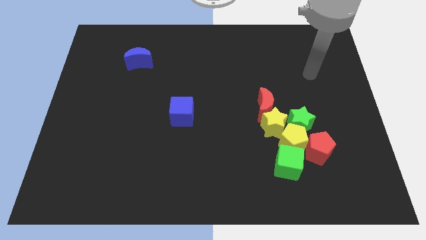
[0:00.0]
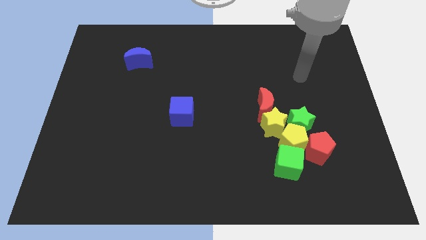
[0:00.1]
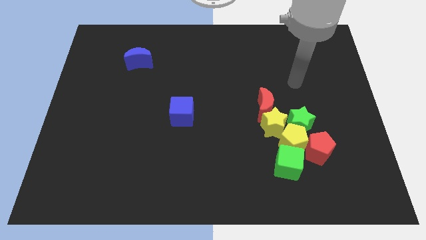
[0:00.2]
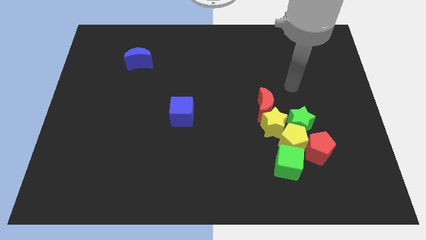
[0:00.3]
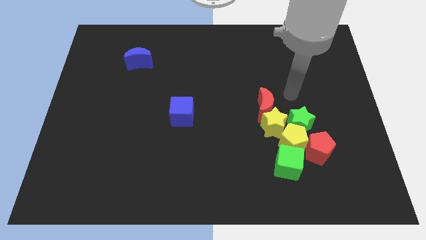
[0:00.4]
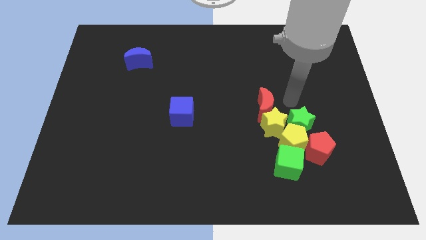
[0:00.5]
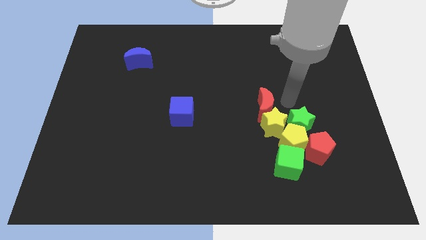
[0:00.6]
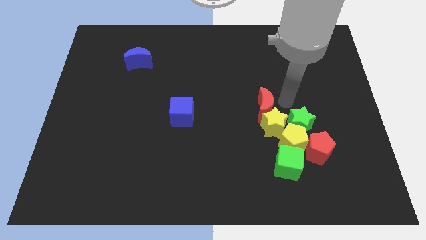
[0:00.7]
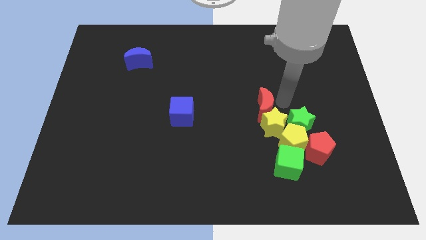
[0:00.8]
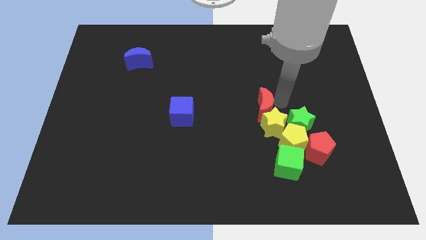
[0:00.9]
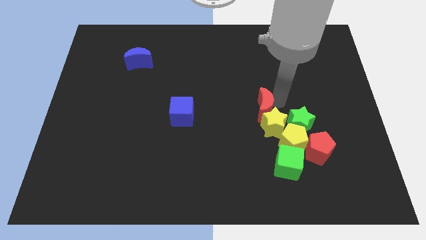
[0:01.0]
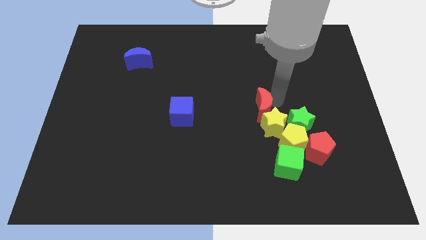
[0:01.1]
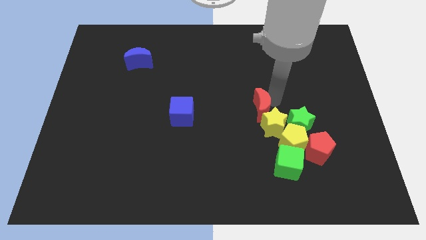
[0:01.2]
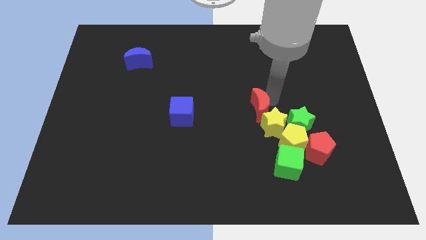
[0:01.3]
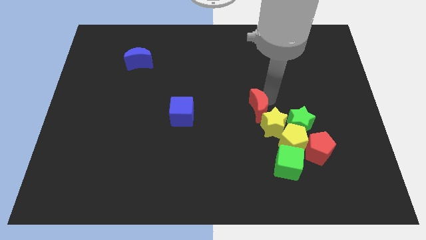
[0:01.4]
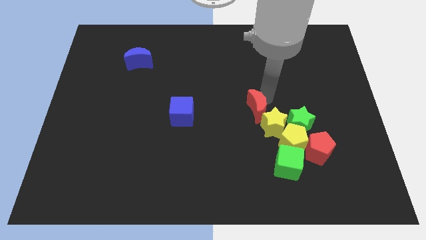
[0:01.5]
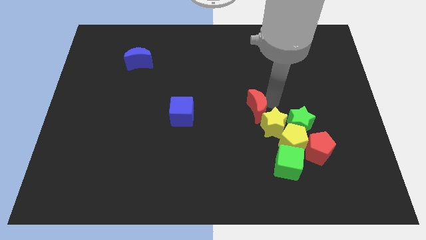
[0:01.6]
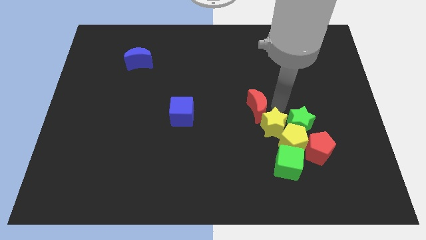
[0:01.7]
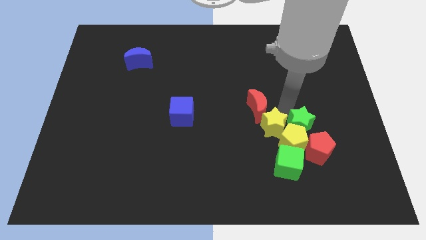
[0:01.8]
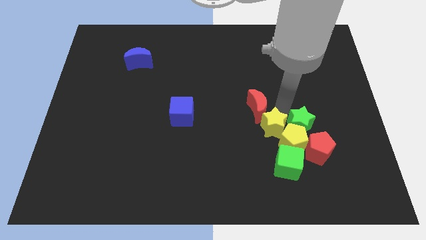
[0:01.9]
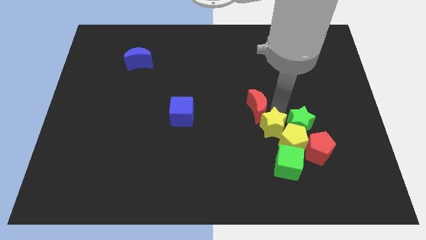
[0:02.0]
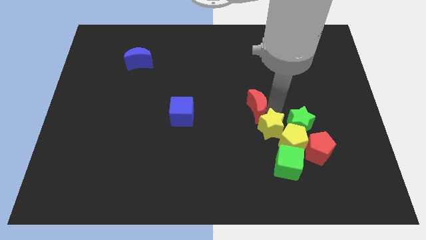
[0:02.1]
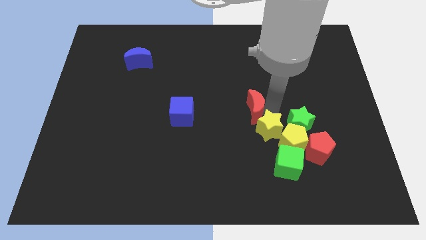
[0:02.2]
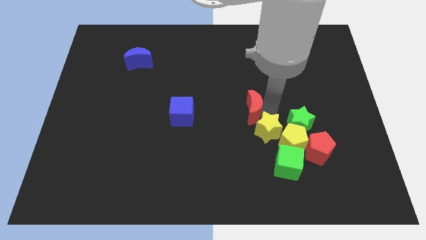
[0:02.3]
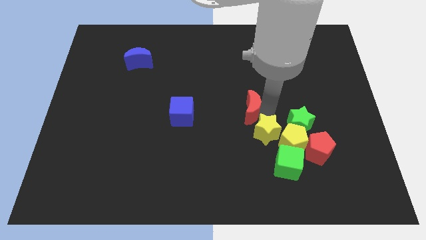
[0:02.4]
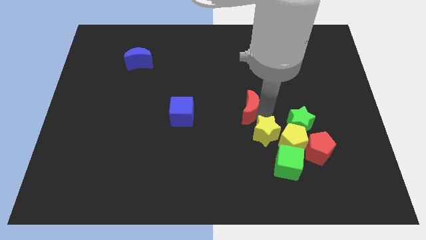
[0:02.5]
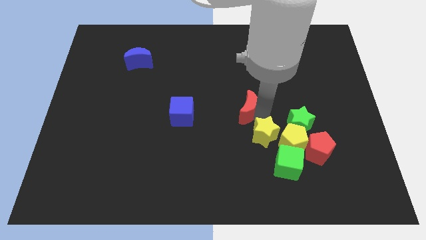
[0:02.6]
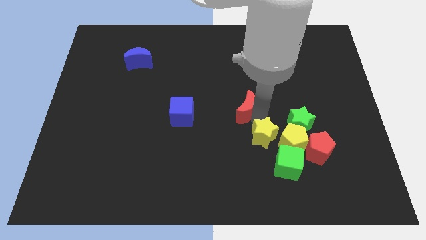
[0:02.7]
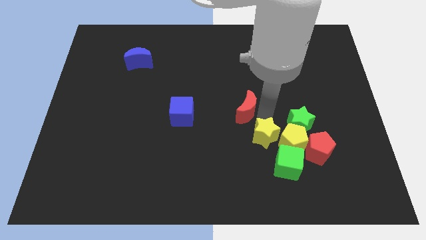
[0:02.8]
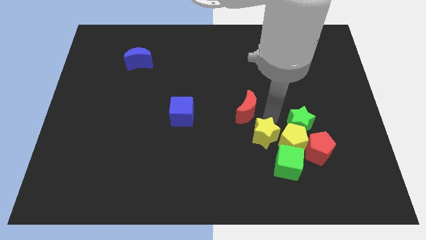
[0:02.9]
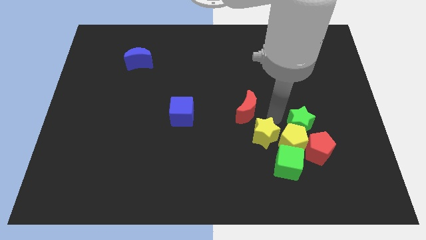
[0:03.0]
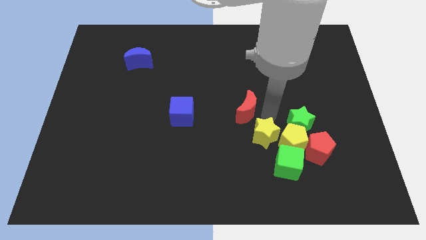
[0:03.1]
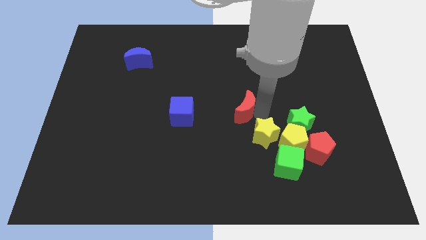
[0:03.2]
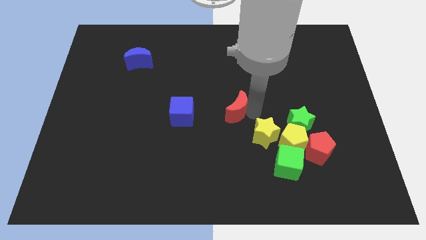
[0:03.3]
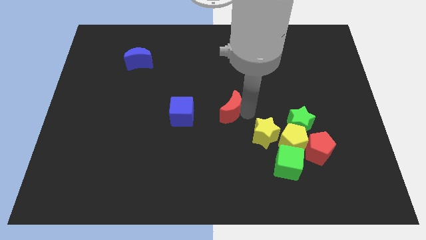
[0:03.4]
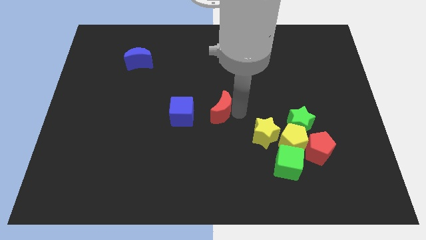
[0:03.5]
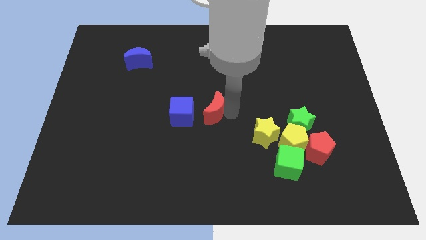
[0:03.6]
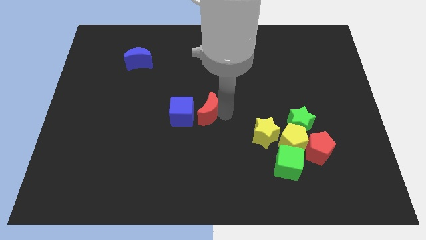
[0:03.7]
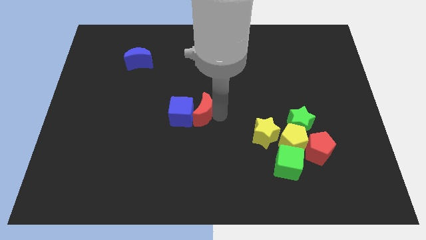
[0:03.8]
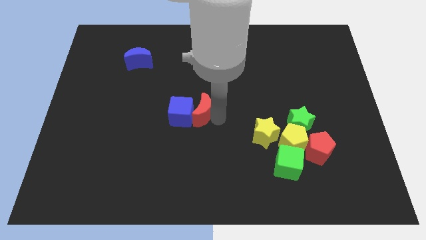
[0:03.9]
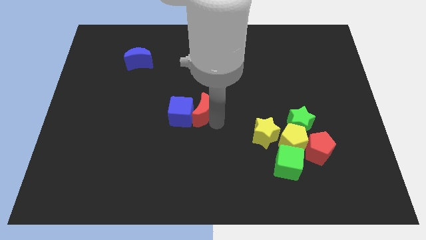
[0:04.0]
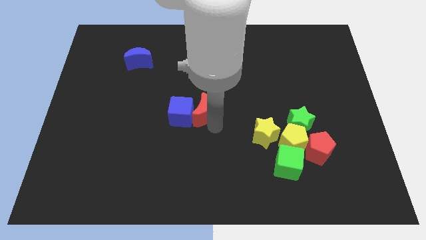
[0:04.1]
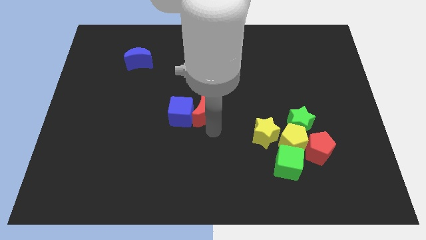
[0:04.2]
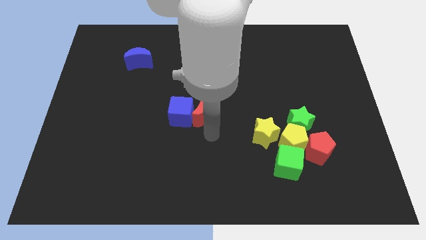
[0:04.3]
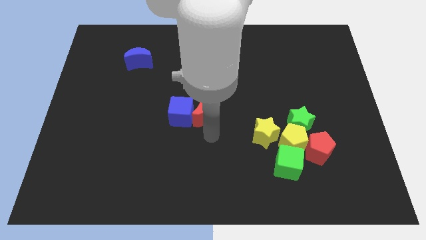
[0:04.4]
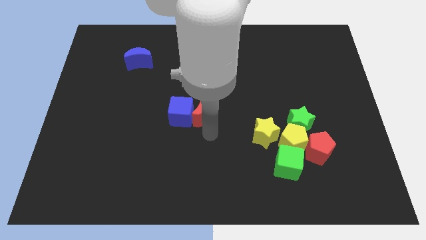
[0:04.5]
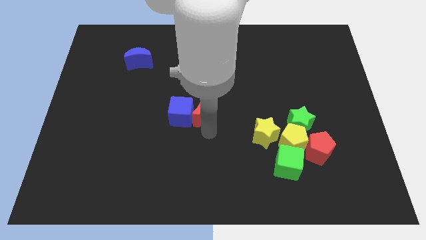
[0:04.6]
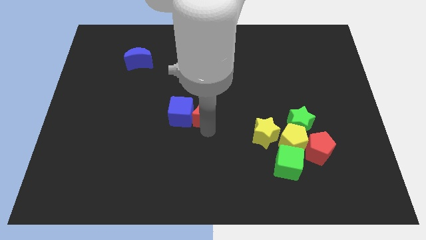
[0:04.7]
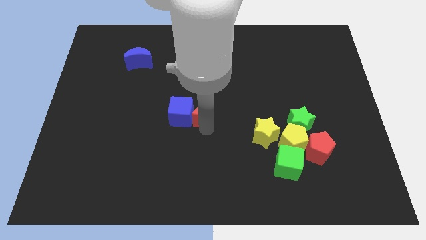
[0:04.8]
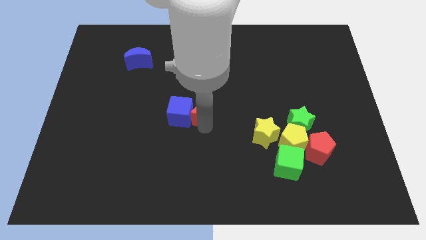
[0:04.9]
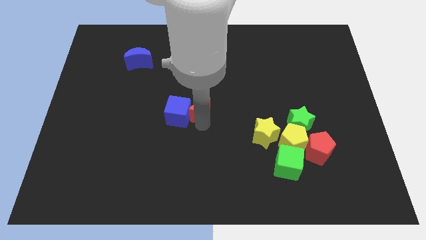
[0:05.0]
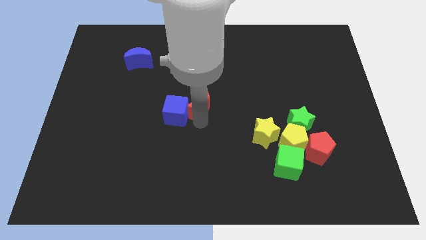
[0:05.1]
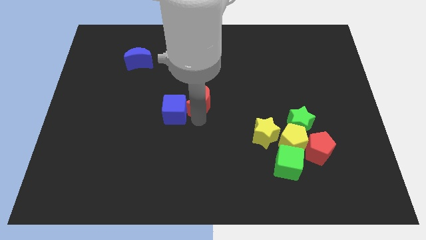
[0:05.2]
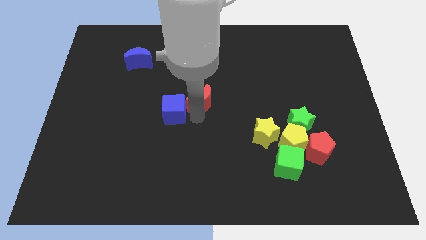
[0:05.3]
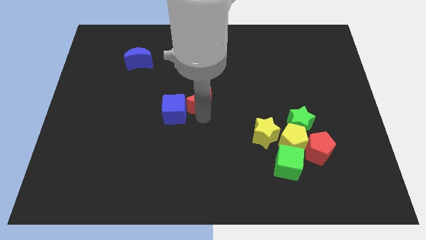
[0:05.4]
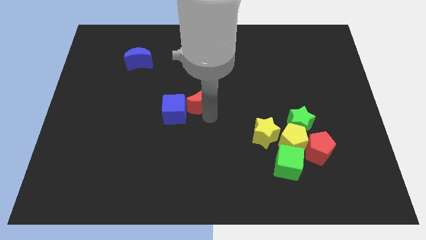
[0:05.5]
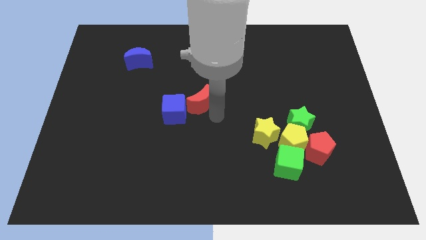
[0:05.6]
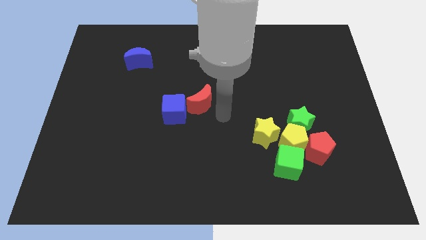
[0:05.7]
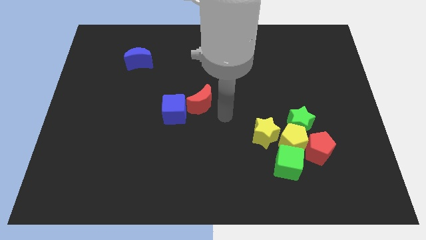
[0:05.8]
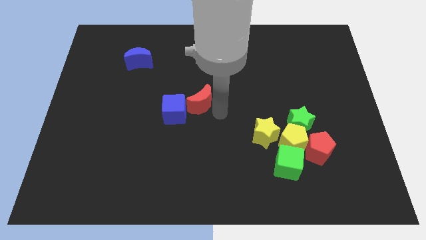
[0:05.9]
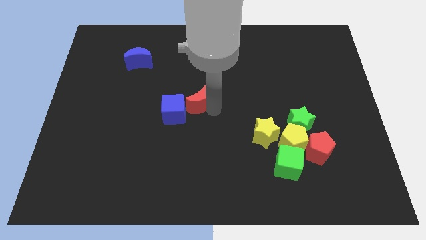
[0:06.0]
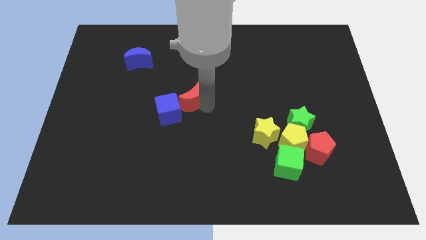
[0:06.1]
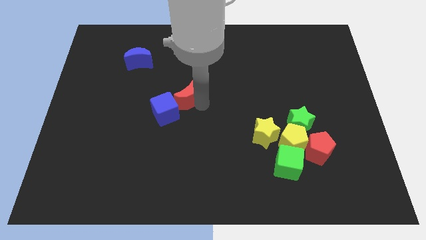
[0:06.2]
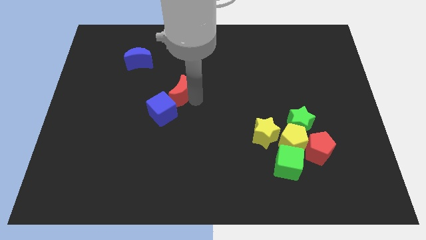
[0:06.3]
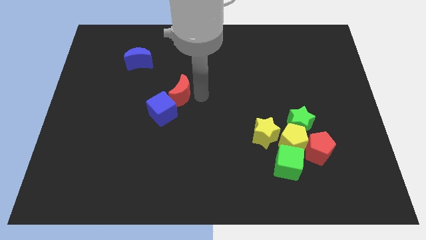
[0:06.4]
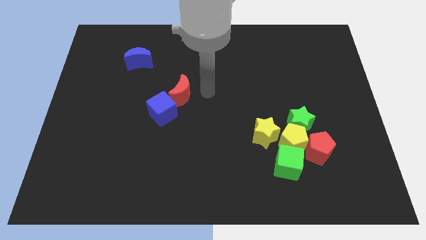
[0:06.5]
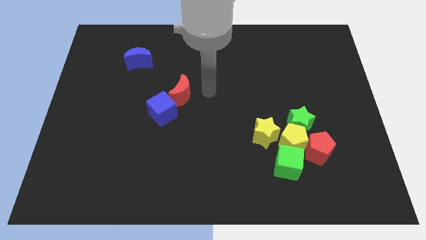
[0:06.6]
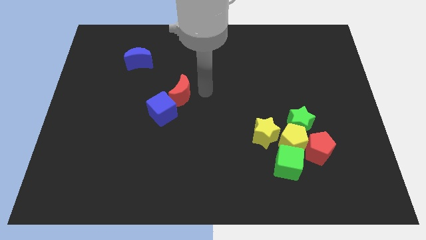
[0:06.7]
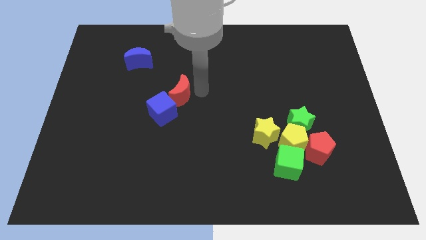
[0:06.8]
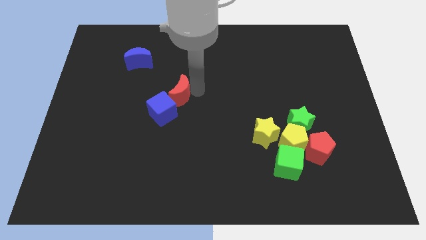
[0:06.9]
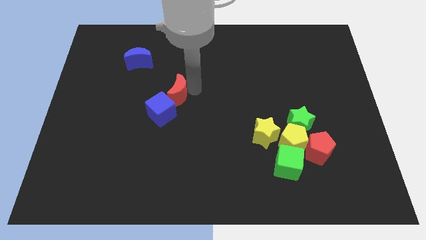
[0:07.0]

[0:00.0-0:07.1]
push the red moon left

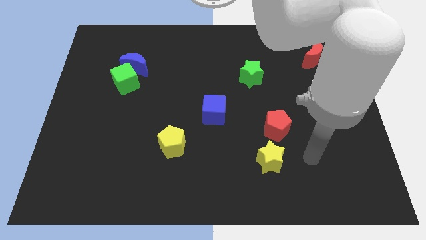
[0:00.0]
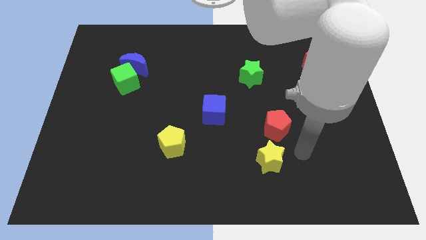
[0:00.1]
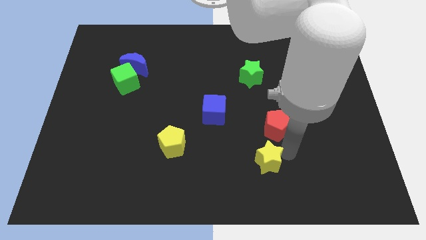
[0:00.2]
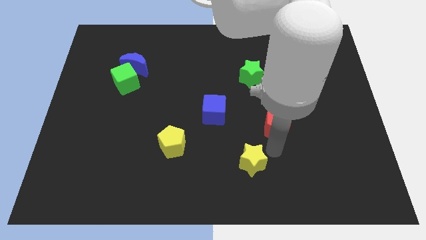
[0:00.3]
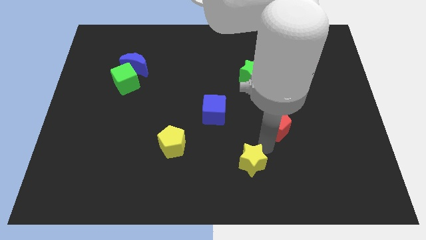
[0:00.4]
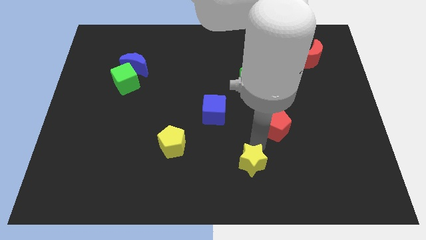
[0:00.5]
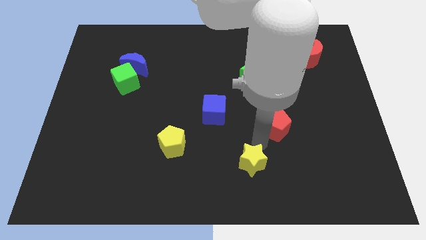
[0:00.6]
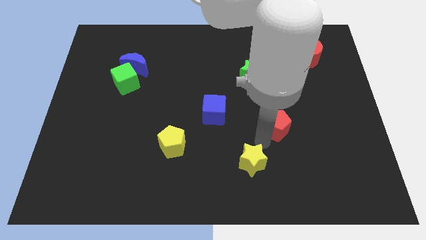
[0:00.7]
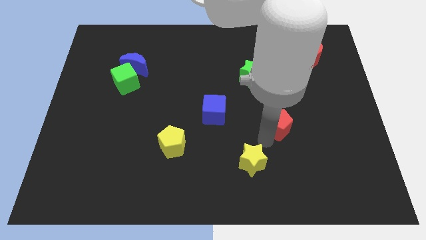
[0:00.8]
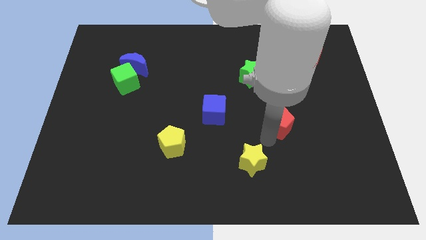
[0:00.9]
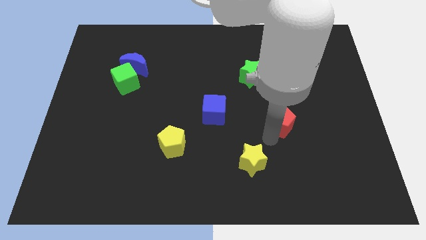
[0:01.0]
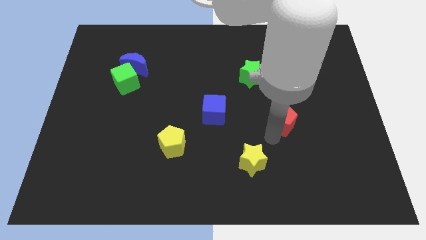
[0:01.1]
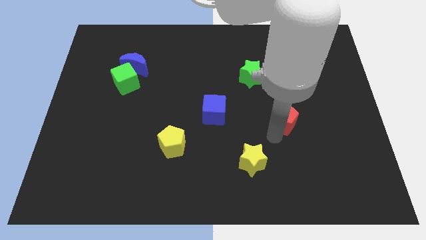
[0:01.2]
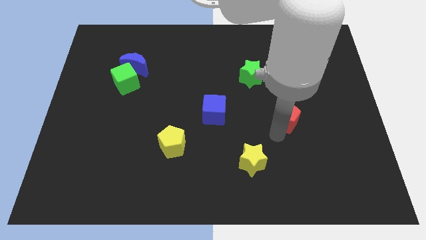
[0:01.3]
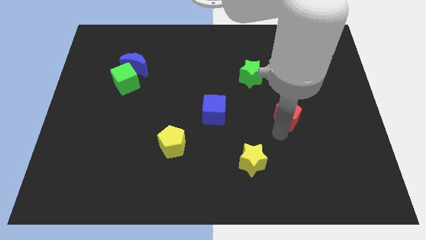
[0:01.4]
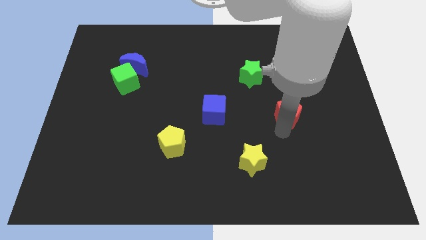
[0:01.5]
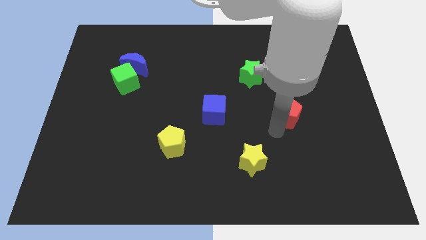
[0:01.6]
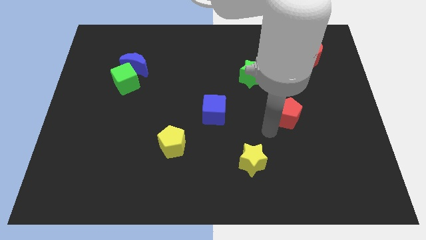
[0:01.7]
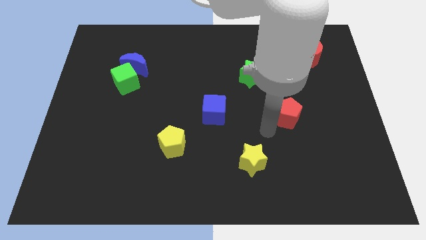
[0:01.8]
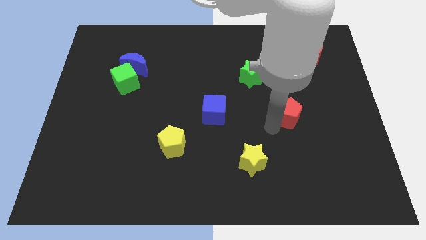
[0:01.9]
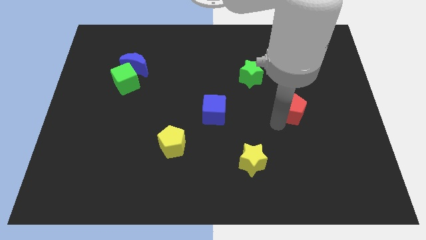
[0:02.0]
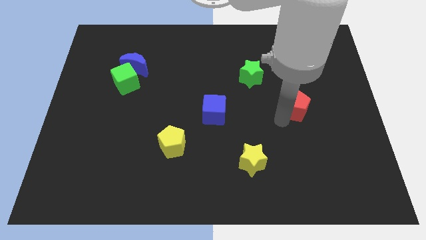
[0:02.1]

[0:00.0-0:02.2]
slightly push the red pentagon upwards and to the right diagonally
